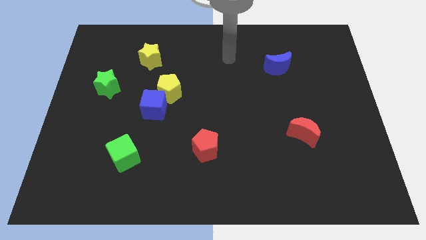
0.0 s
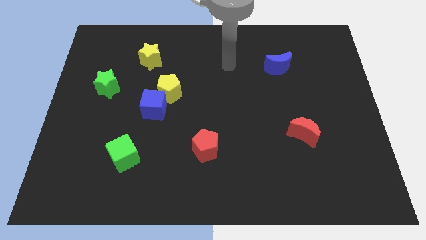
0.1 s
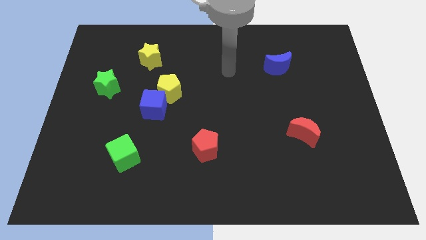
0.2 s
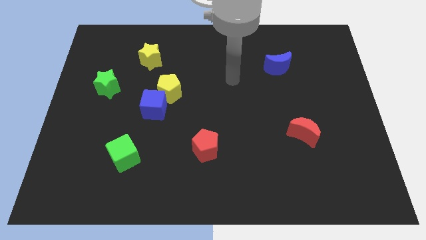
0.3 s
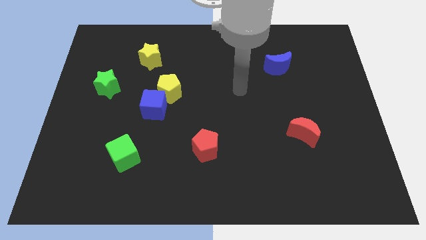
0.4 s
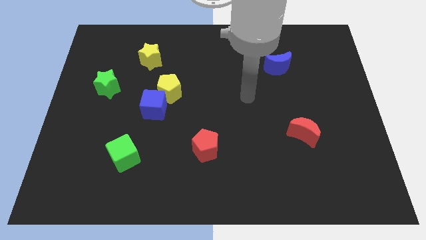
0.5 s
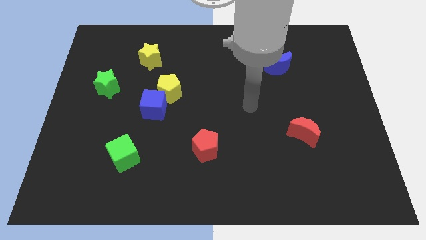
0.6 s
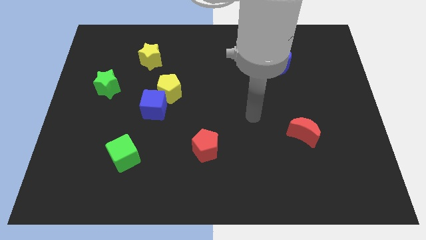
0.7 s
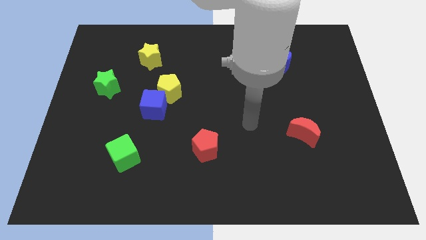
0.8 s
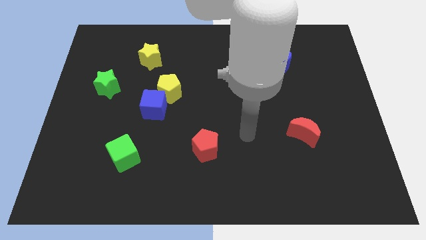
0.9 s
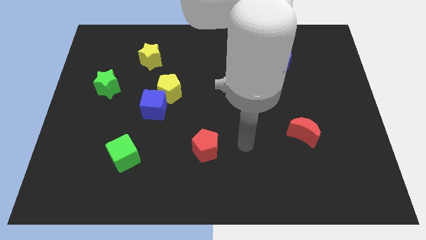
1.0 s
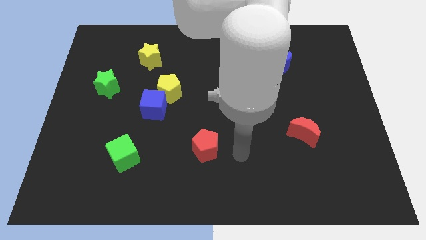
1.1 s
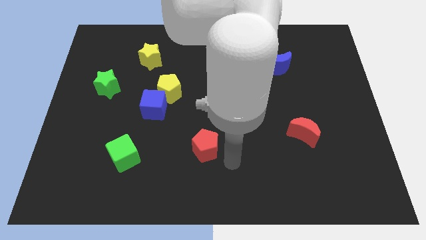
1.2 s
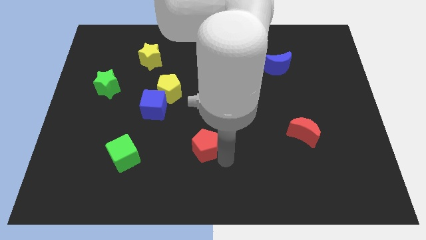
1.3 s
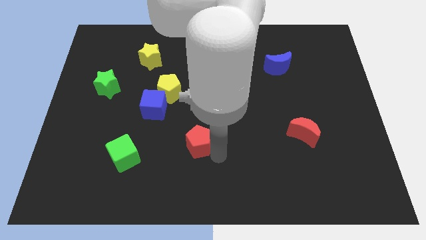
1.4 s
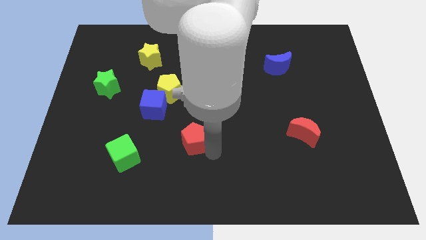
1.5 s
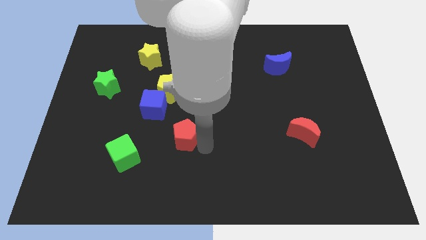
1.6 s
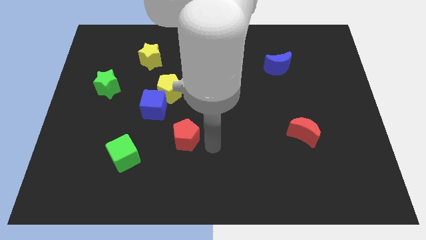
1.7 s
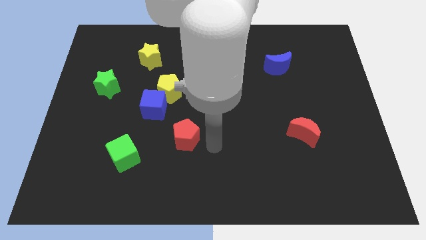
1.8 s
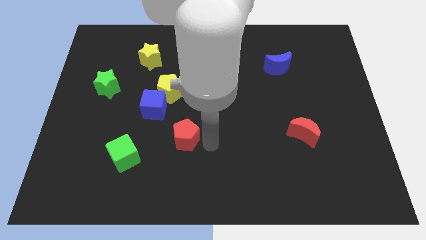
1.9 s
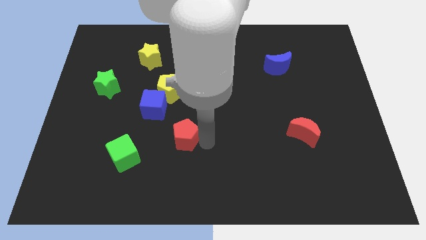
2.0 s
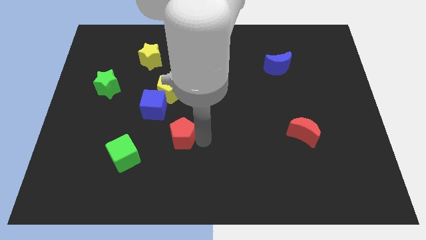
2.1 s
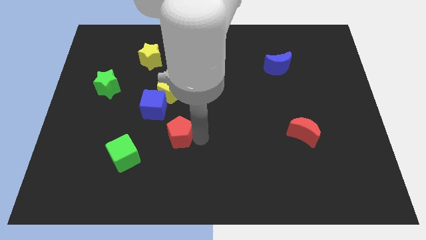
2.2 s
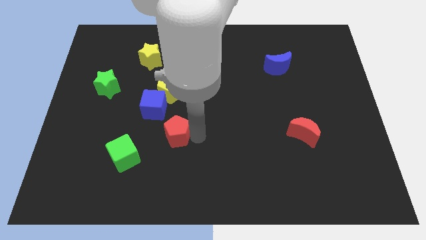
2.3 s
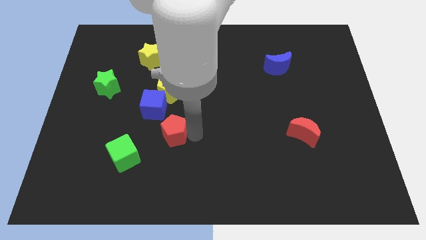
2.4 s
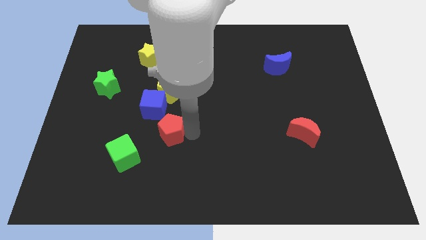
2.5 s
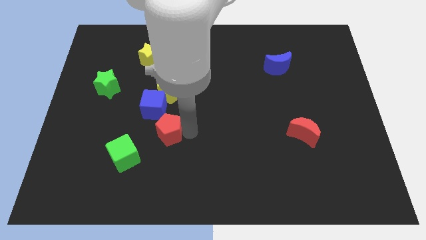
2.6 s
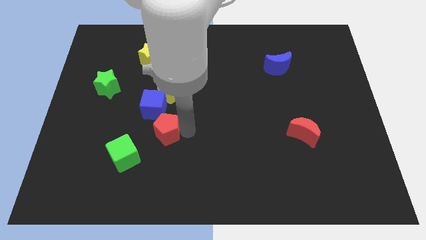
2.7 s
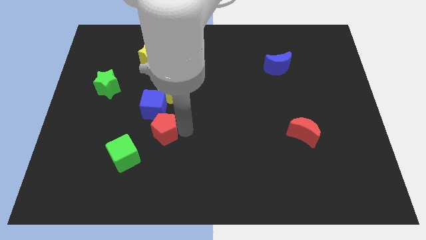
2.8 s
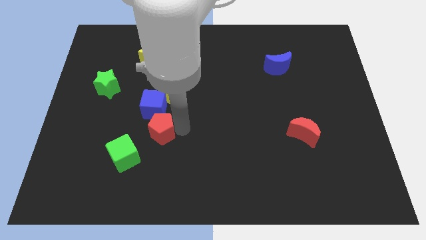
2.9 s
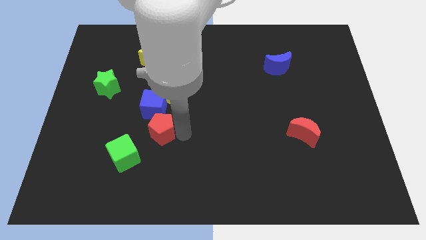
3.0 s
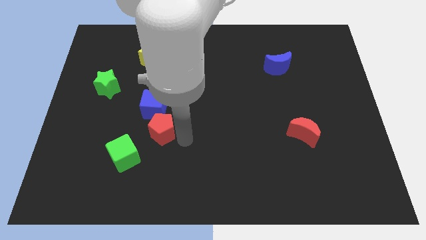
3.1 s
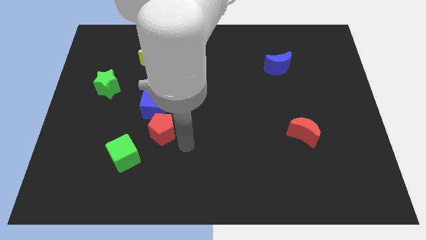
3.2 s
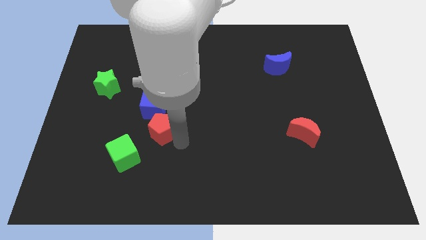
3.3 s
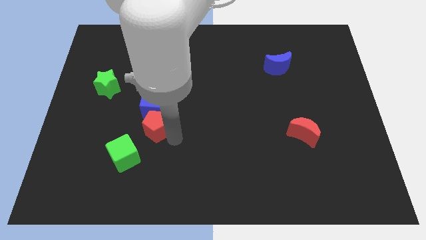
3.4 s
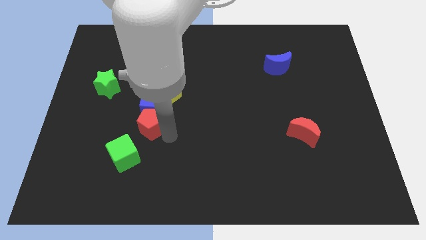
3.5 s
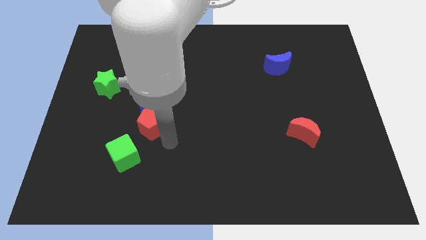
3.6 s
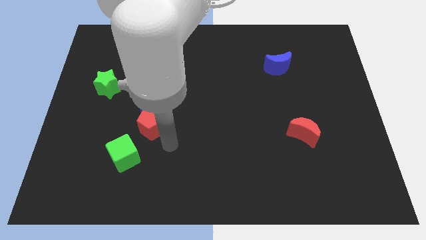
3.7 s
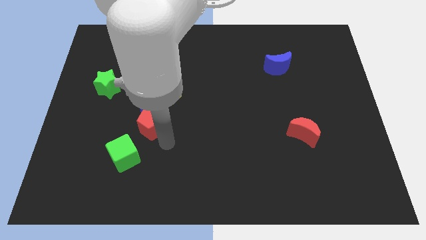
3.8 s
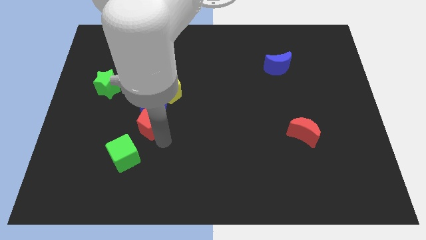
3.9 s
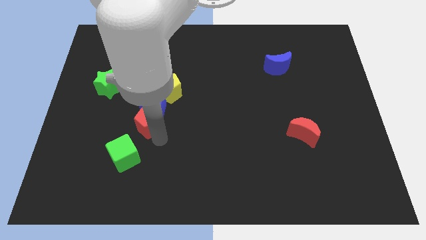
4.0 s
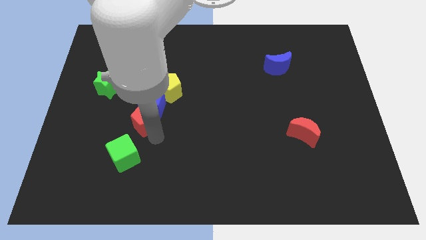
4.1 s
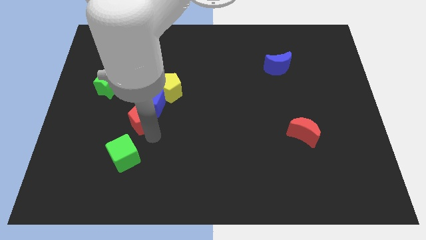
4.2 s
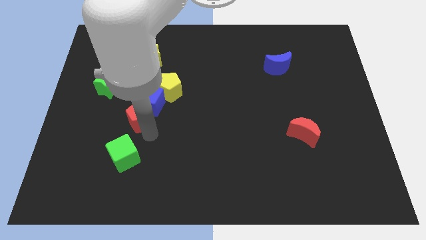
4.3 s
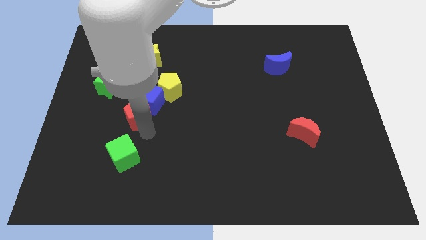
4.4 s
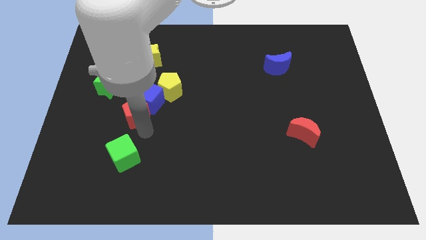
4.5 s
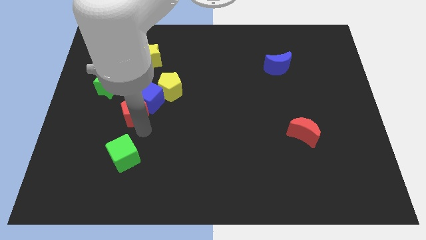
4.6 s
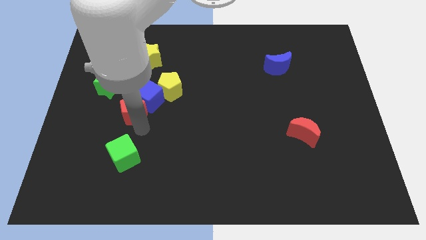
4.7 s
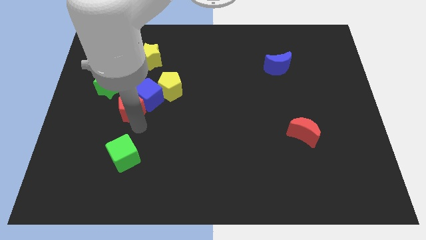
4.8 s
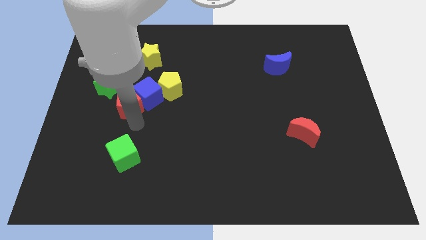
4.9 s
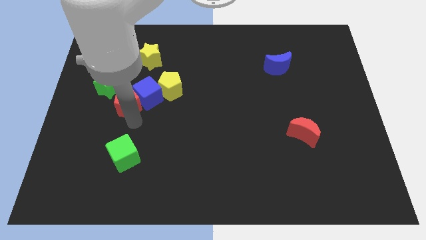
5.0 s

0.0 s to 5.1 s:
slide the red pentagon up and left diagonally

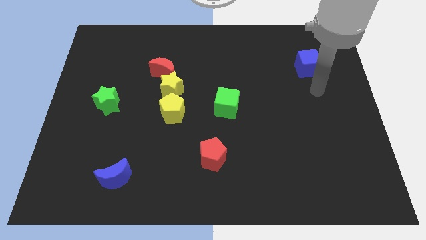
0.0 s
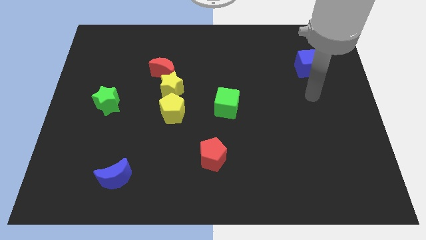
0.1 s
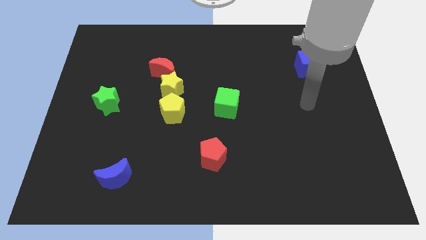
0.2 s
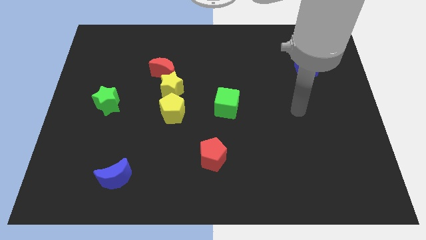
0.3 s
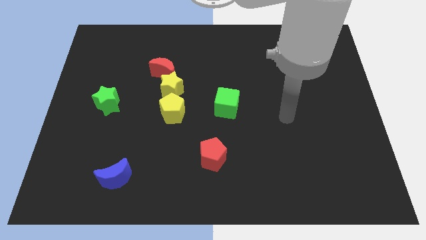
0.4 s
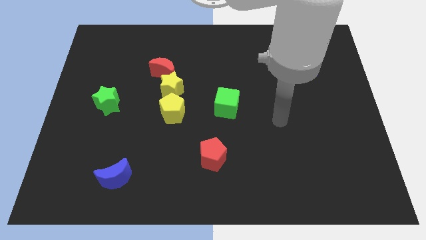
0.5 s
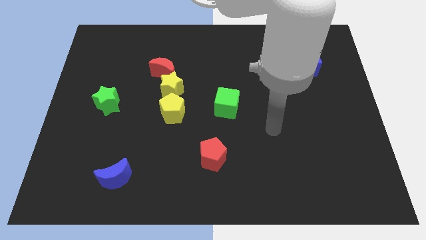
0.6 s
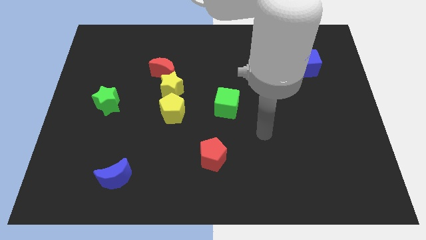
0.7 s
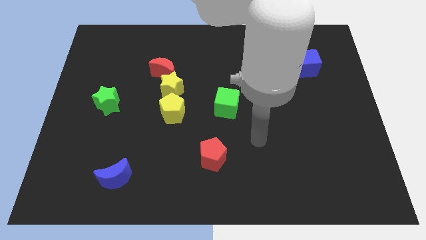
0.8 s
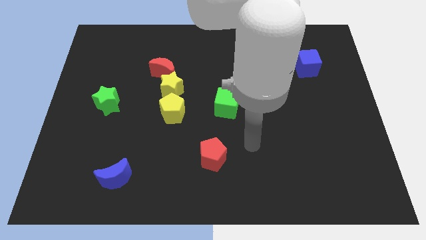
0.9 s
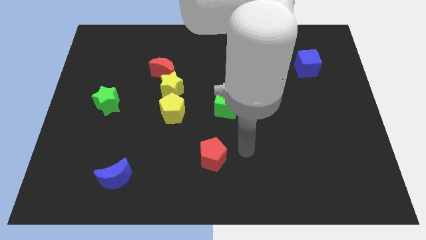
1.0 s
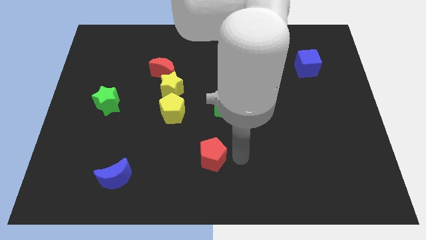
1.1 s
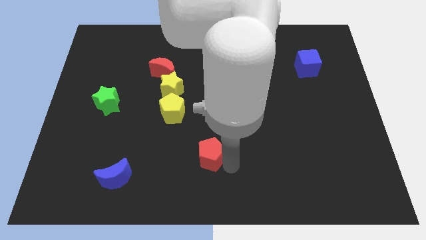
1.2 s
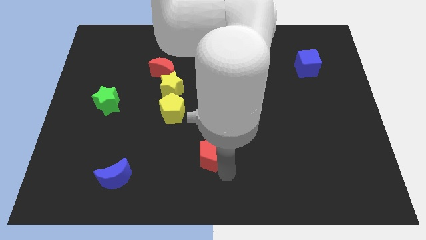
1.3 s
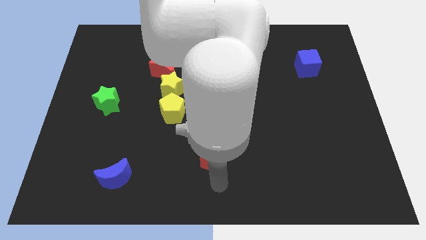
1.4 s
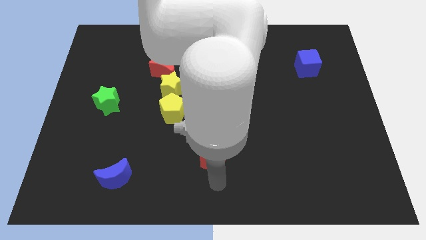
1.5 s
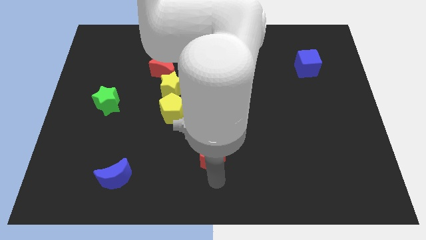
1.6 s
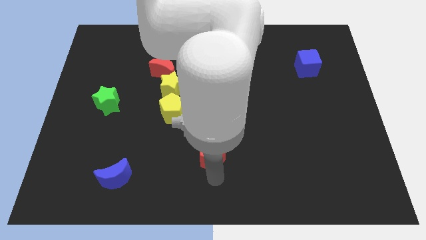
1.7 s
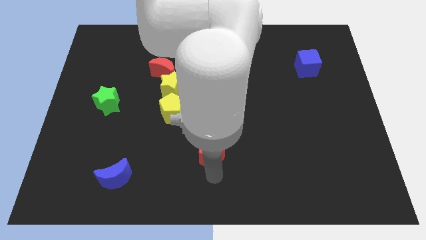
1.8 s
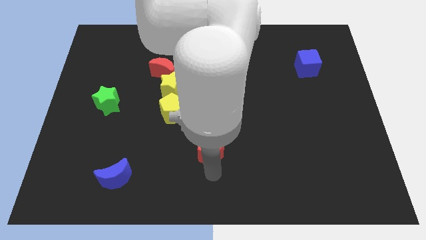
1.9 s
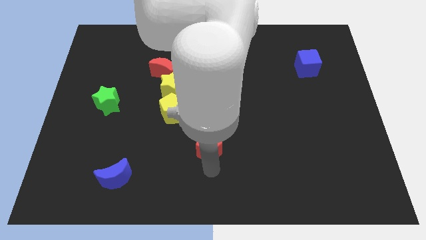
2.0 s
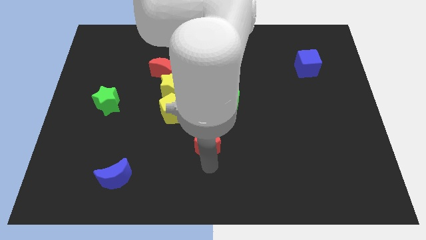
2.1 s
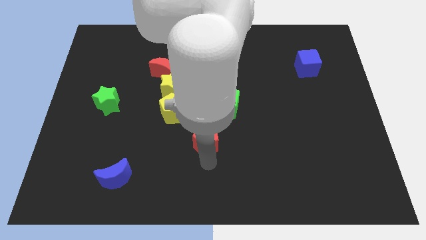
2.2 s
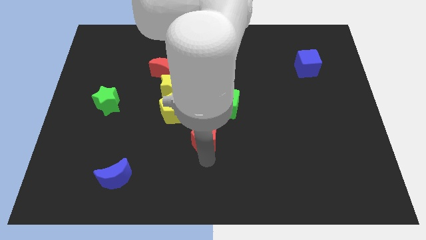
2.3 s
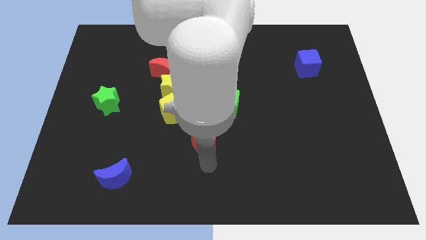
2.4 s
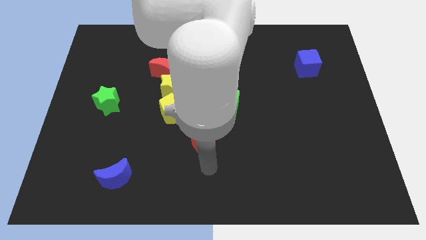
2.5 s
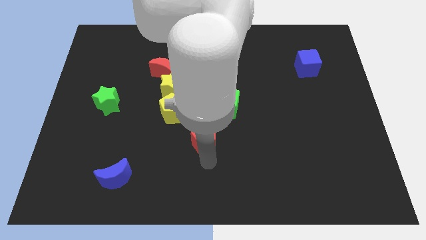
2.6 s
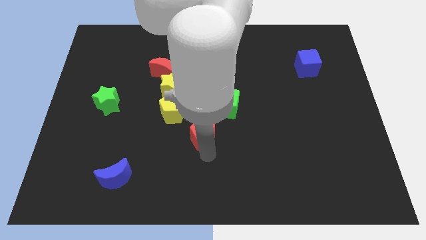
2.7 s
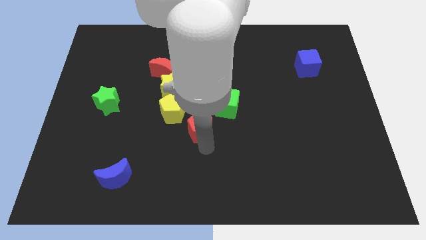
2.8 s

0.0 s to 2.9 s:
push the red pentagon upwards a bit
